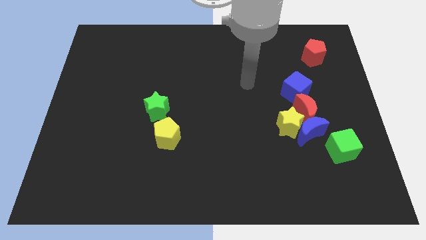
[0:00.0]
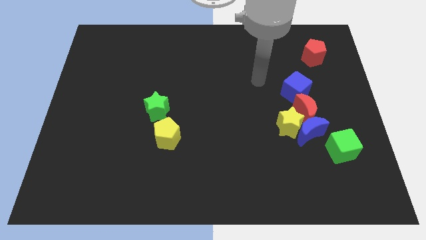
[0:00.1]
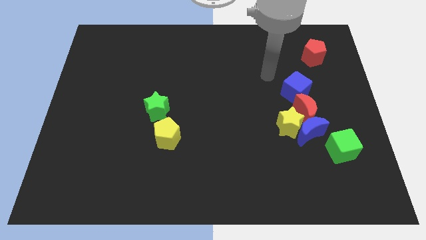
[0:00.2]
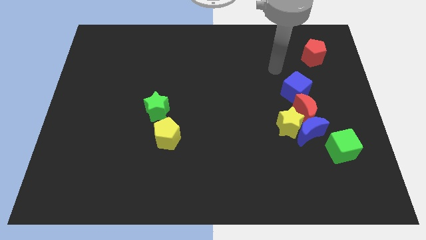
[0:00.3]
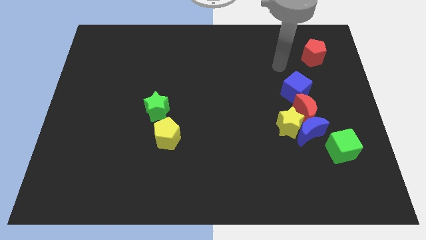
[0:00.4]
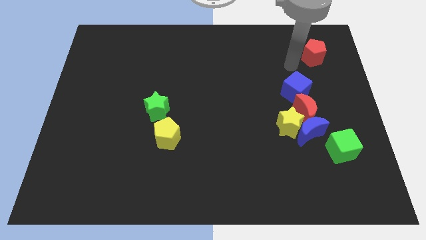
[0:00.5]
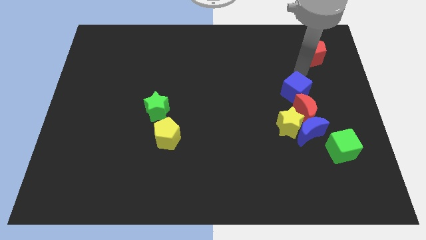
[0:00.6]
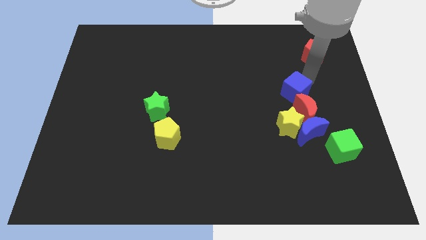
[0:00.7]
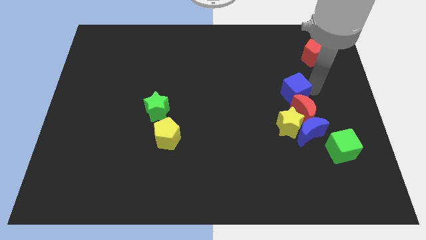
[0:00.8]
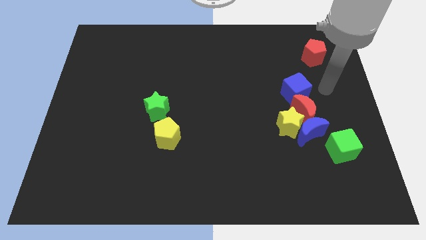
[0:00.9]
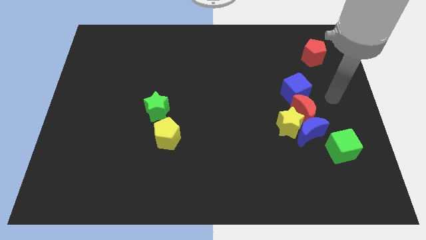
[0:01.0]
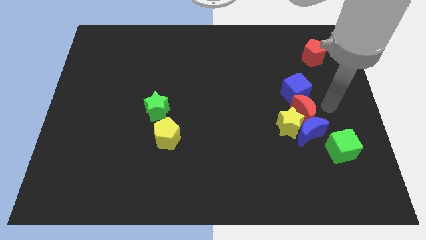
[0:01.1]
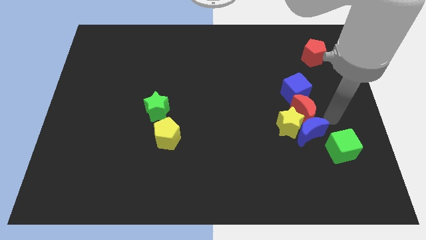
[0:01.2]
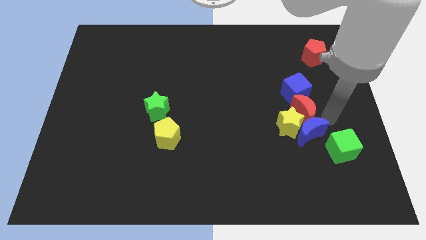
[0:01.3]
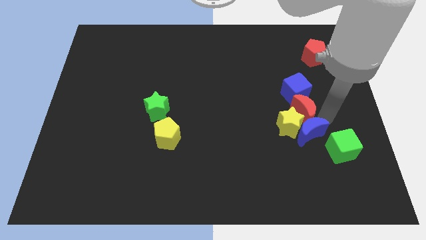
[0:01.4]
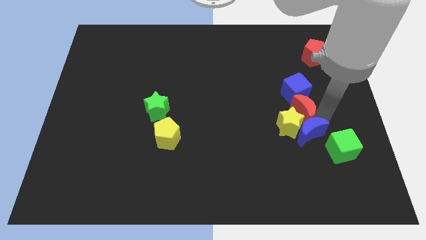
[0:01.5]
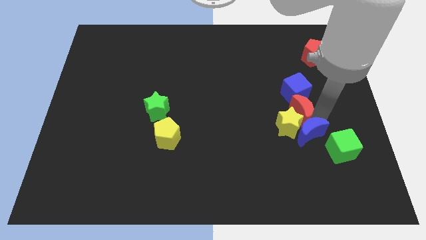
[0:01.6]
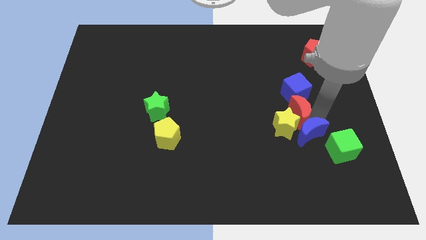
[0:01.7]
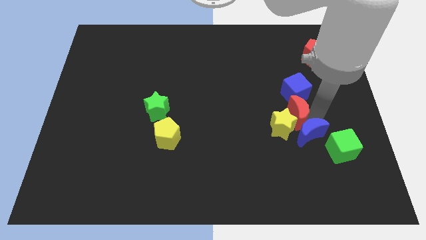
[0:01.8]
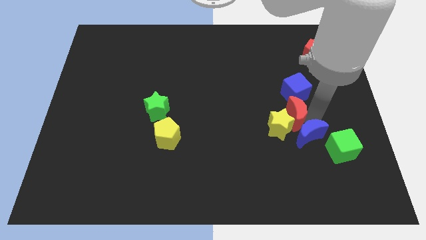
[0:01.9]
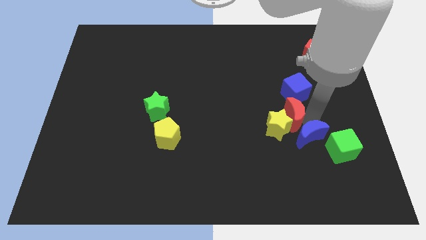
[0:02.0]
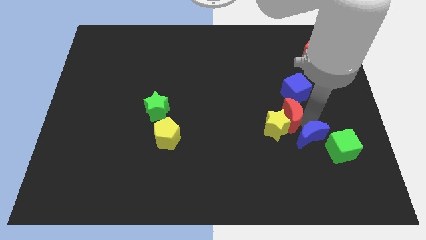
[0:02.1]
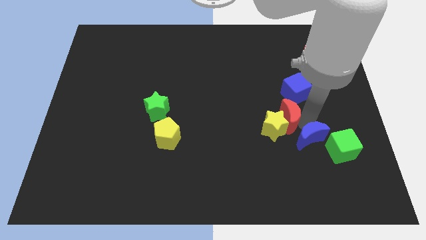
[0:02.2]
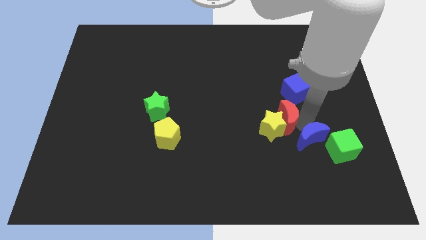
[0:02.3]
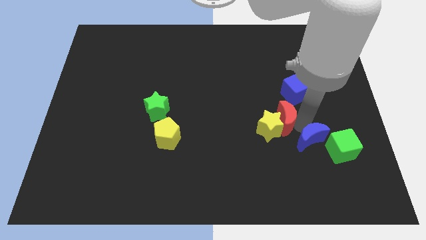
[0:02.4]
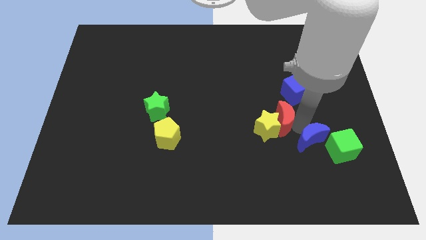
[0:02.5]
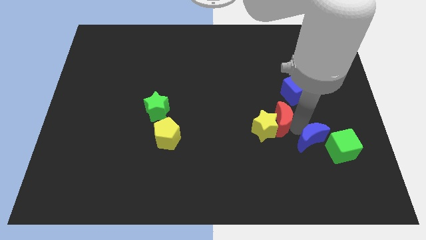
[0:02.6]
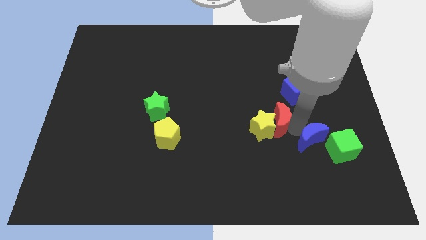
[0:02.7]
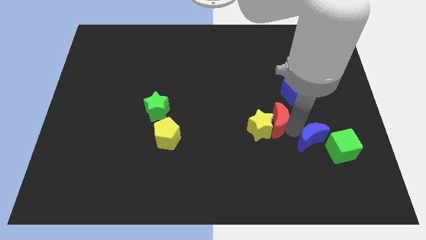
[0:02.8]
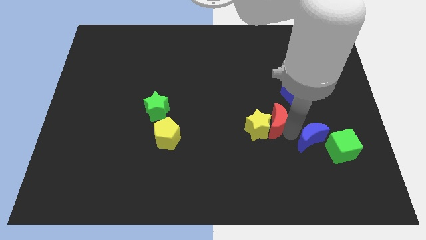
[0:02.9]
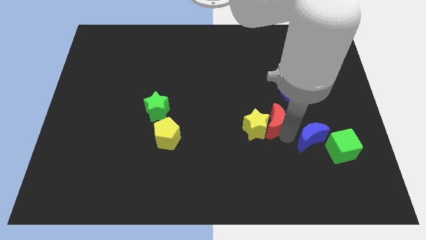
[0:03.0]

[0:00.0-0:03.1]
move the red moon to the left slightly

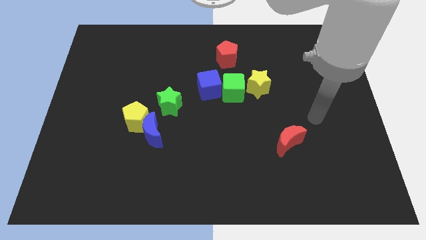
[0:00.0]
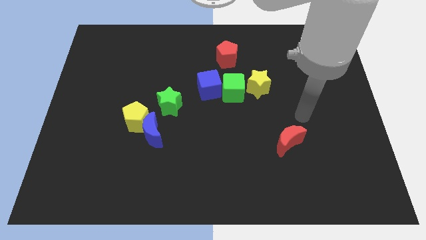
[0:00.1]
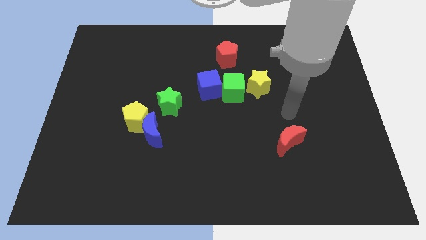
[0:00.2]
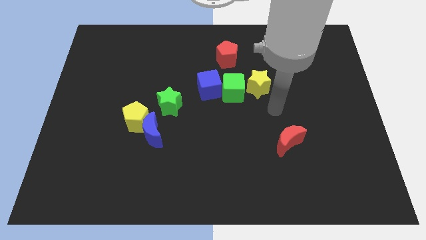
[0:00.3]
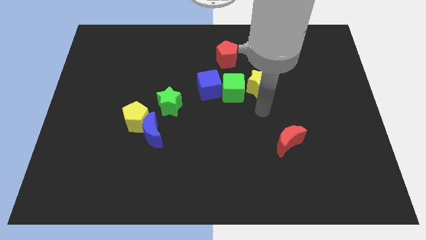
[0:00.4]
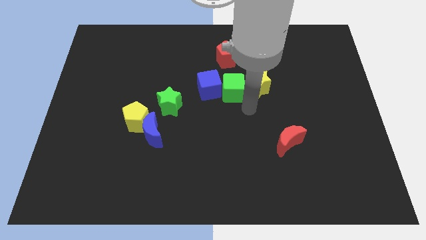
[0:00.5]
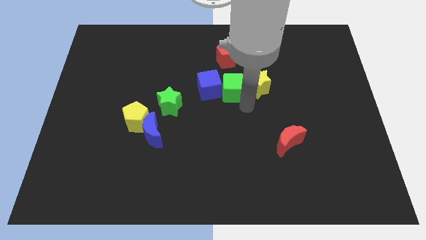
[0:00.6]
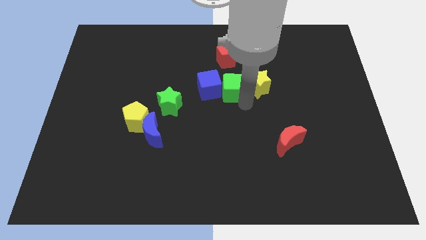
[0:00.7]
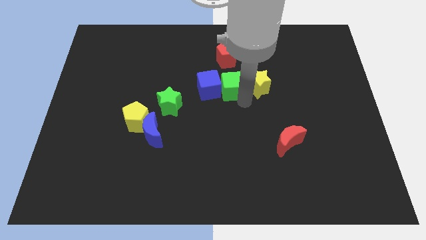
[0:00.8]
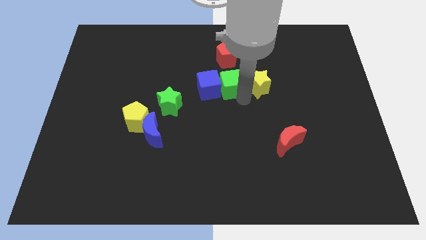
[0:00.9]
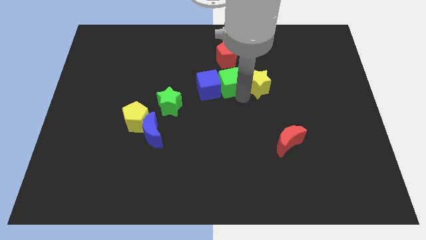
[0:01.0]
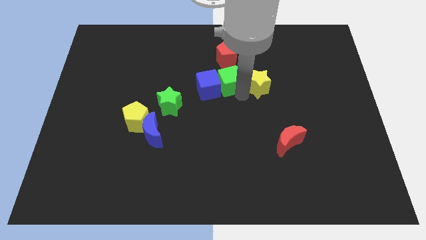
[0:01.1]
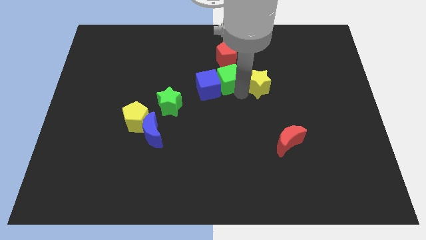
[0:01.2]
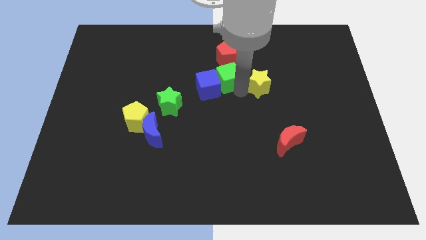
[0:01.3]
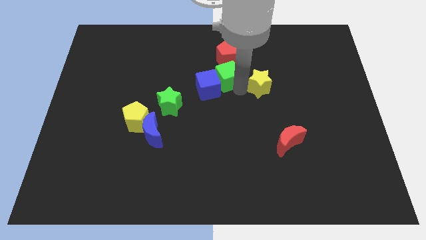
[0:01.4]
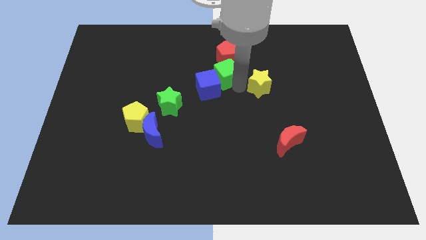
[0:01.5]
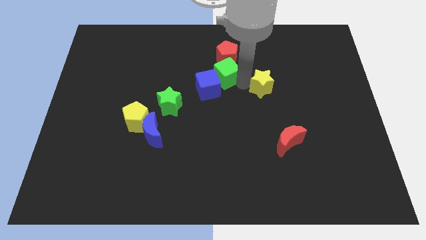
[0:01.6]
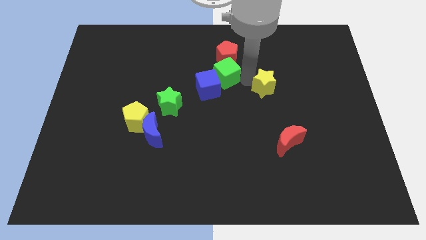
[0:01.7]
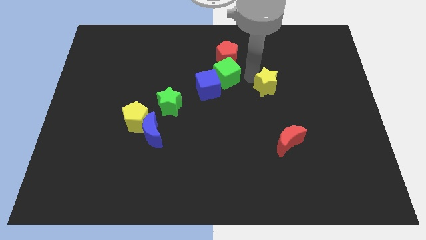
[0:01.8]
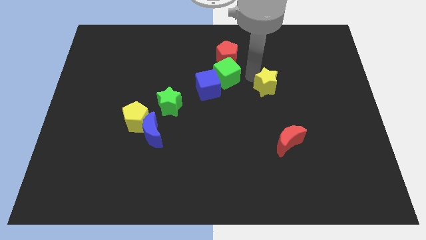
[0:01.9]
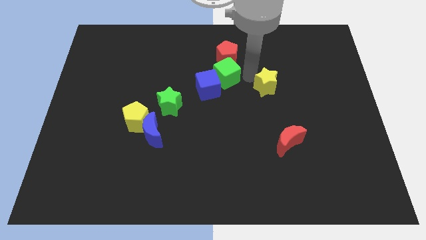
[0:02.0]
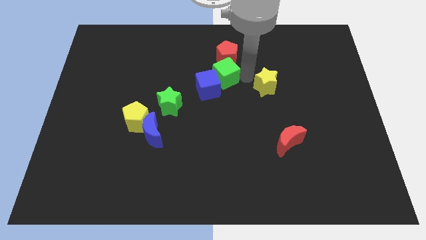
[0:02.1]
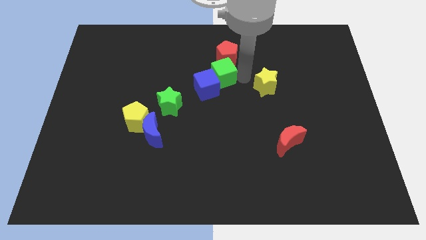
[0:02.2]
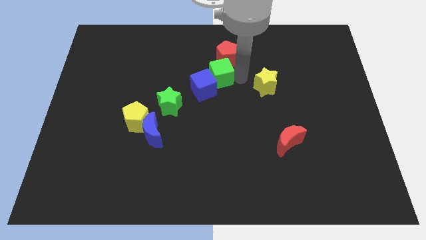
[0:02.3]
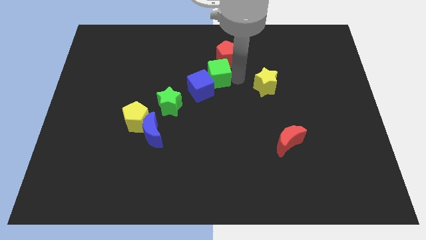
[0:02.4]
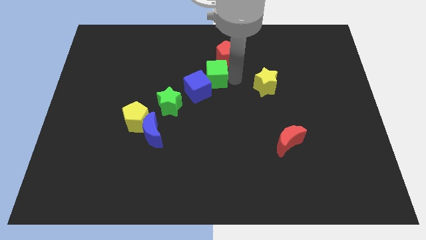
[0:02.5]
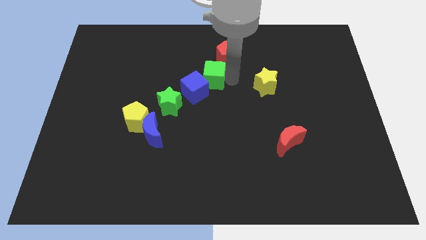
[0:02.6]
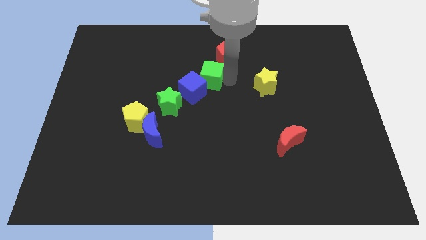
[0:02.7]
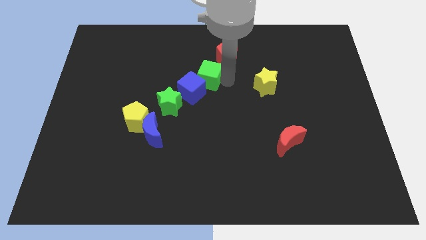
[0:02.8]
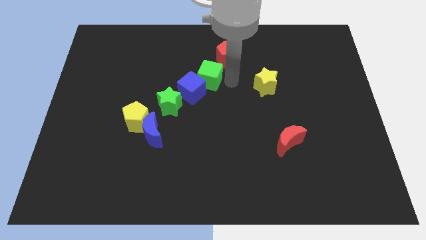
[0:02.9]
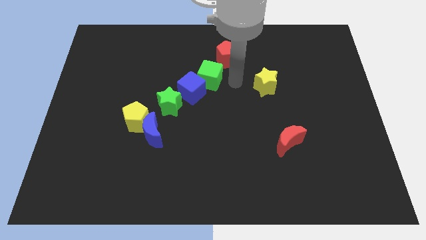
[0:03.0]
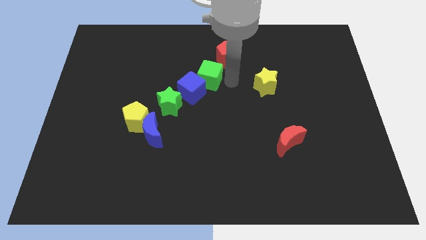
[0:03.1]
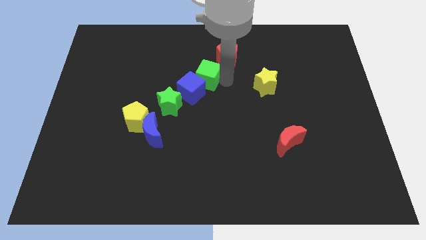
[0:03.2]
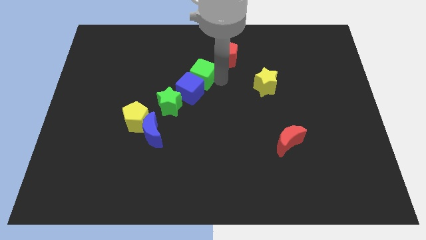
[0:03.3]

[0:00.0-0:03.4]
move the green cube a little bit to the left

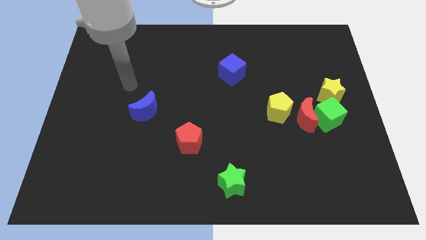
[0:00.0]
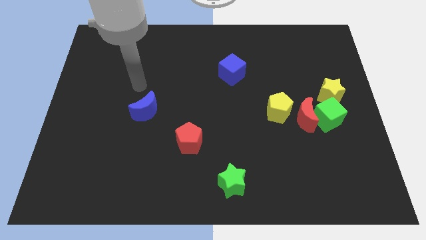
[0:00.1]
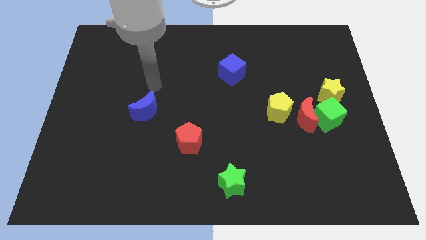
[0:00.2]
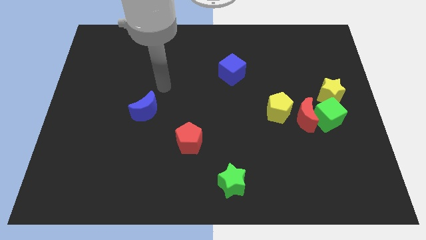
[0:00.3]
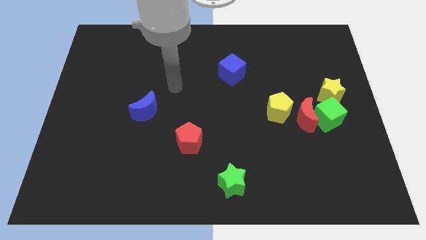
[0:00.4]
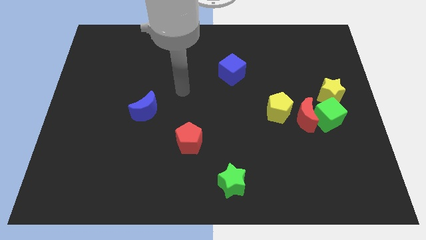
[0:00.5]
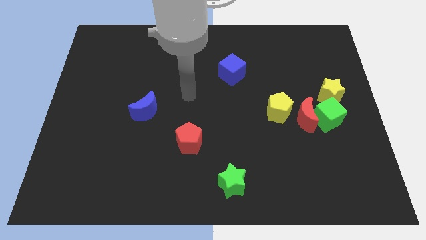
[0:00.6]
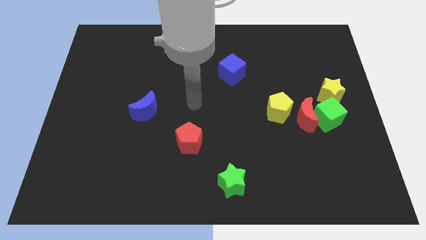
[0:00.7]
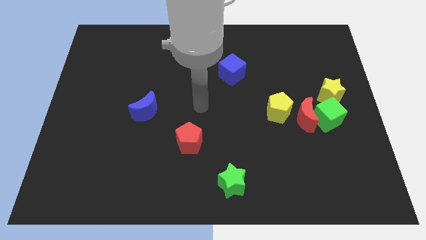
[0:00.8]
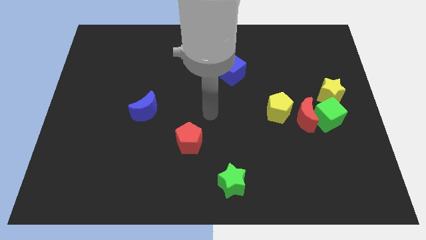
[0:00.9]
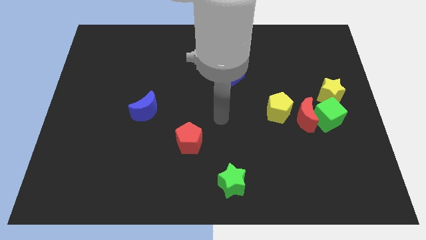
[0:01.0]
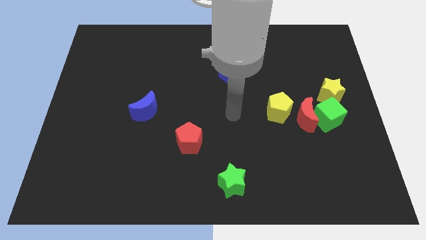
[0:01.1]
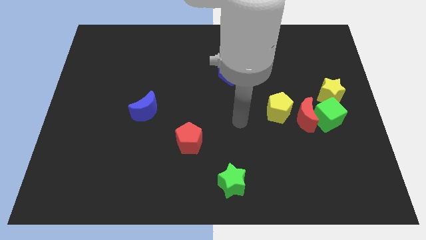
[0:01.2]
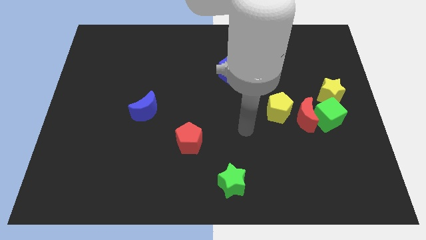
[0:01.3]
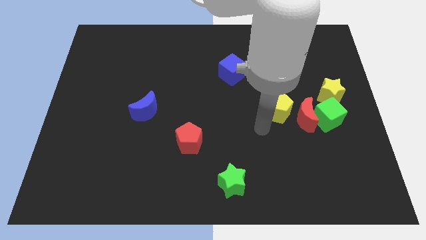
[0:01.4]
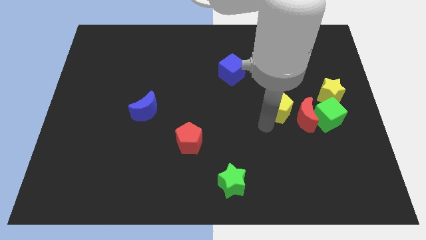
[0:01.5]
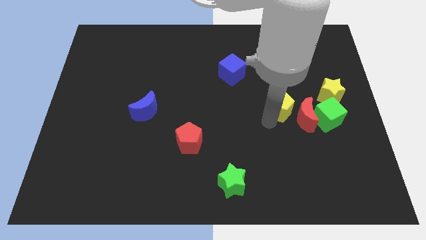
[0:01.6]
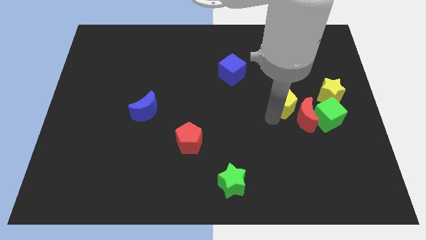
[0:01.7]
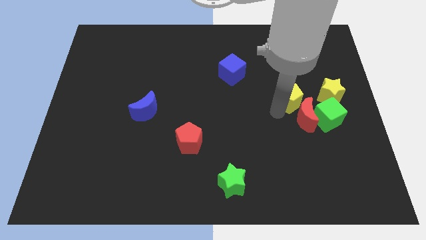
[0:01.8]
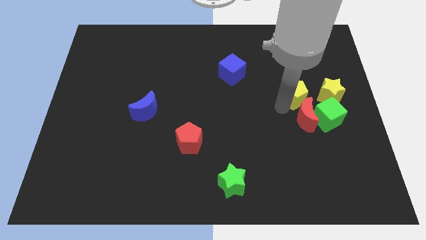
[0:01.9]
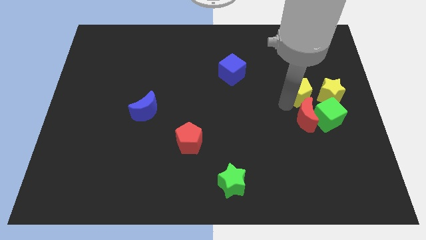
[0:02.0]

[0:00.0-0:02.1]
push the yellow pentagon a little up and to the right diagonally
